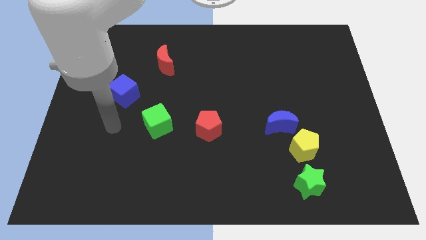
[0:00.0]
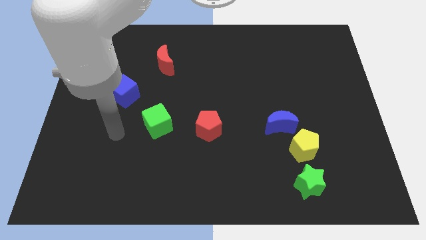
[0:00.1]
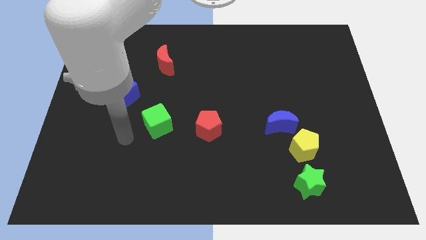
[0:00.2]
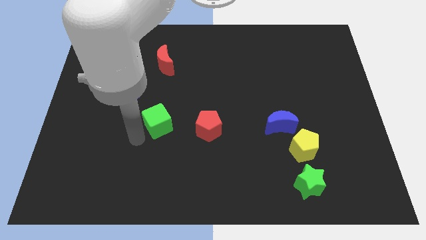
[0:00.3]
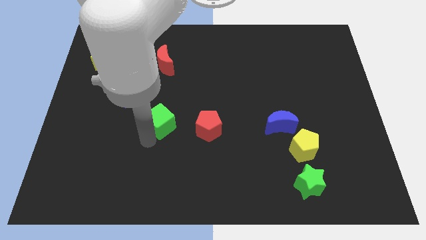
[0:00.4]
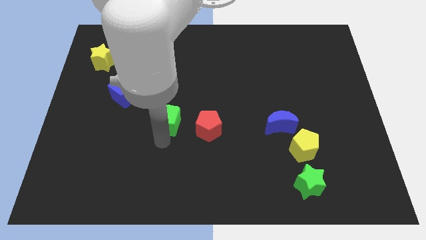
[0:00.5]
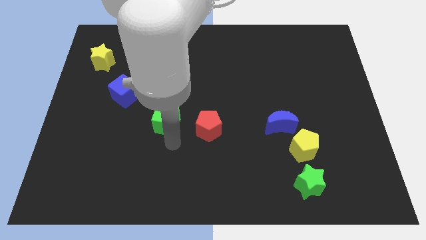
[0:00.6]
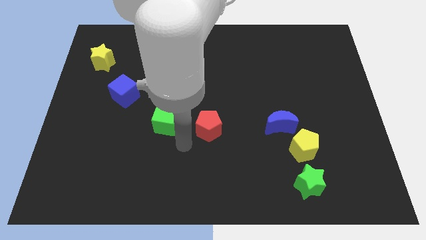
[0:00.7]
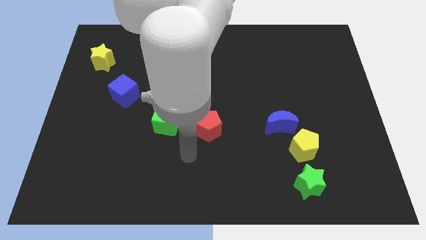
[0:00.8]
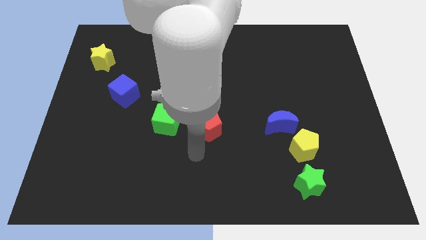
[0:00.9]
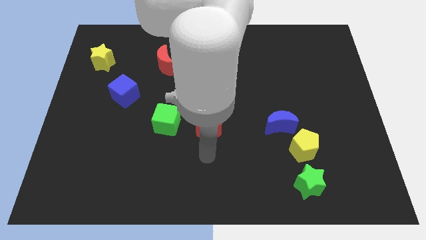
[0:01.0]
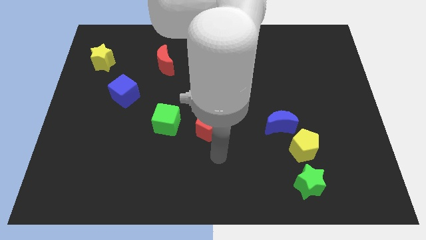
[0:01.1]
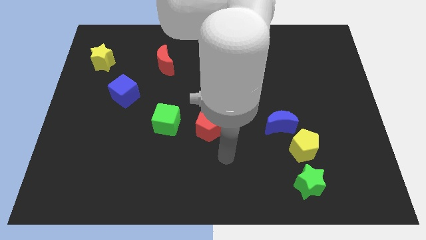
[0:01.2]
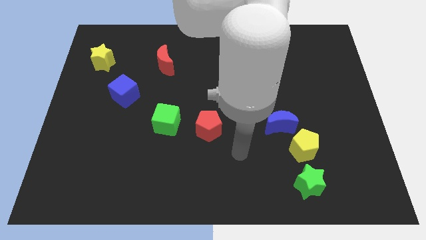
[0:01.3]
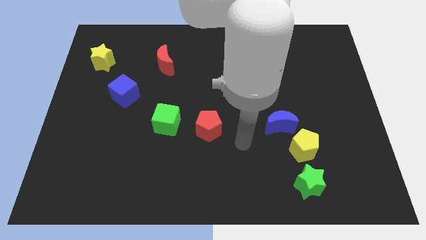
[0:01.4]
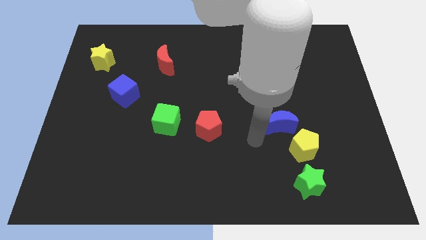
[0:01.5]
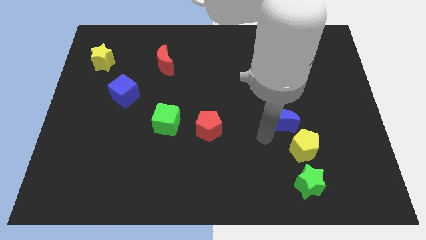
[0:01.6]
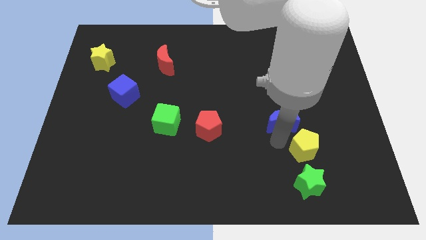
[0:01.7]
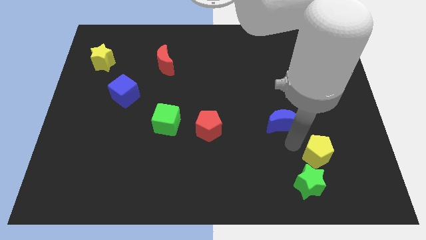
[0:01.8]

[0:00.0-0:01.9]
pull the blue moon apart from the yellow pentagon

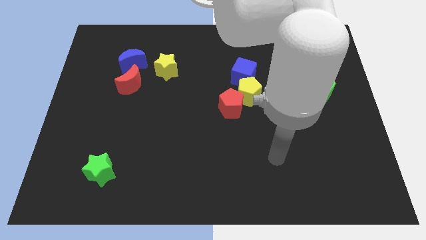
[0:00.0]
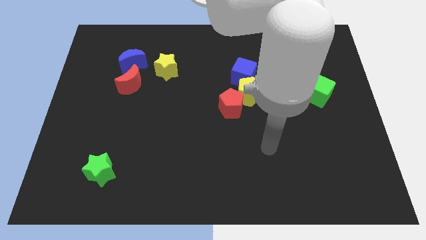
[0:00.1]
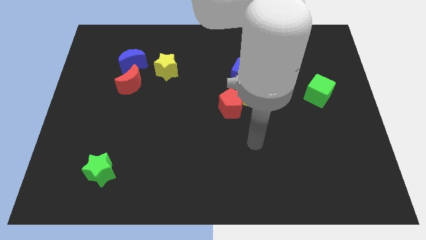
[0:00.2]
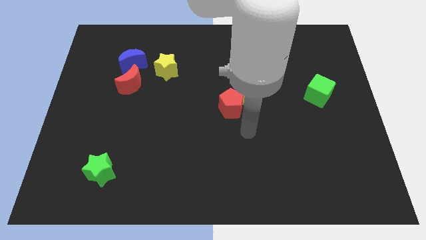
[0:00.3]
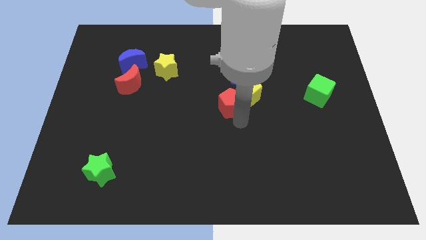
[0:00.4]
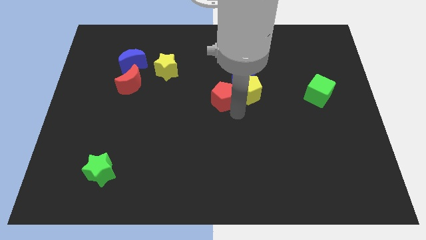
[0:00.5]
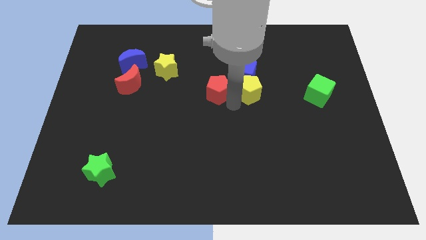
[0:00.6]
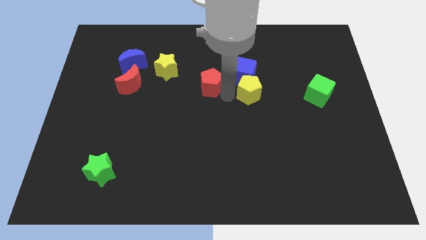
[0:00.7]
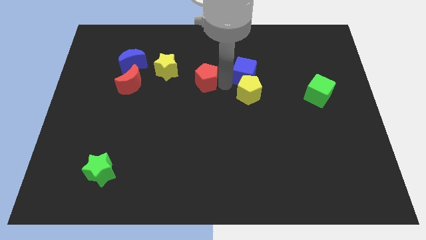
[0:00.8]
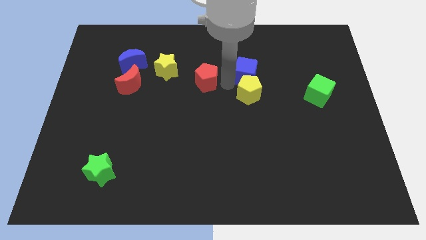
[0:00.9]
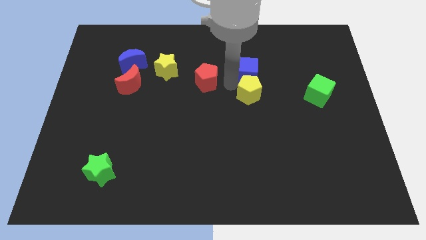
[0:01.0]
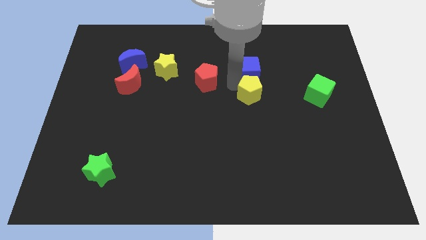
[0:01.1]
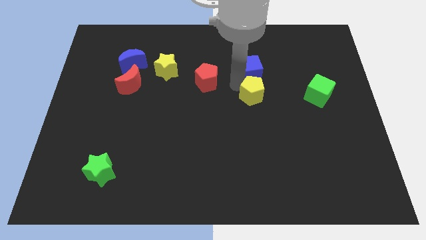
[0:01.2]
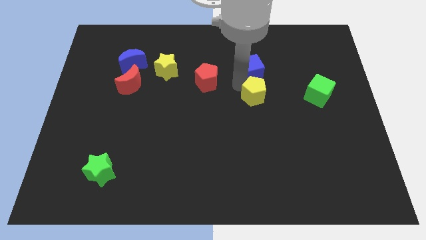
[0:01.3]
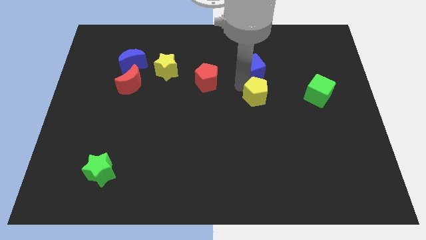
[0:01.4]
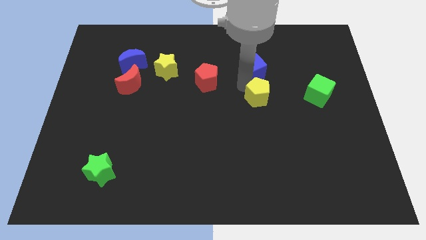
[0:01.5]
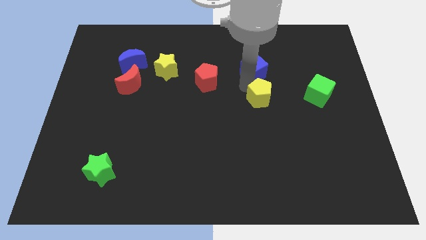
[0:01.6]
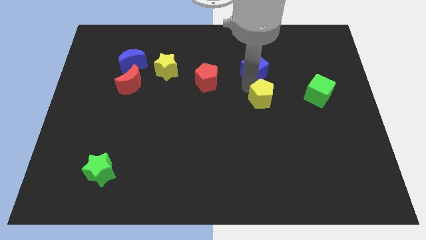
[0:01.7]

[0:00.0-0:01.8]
move the yellow pentagon away from the red pentagon and blue cube

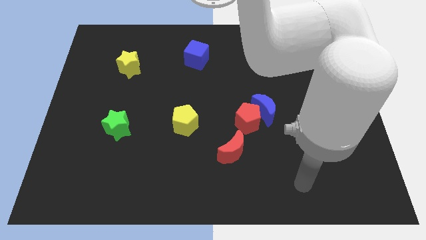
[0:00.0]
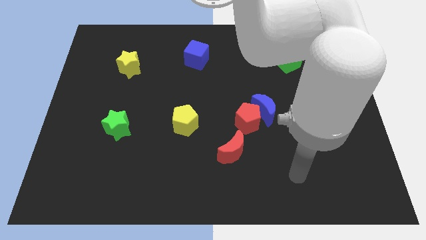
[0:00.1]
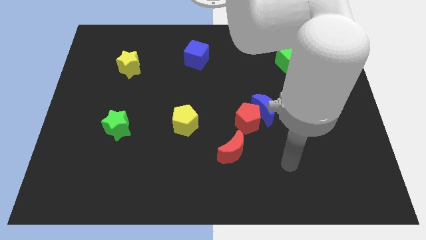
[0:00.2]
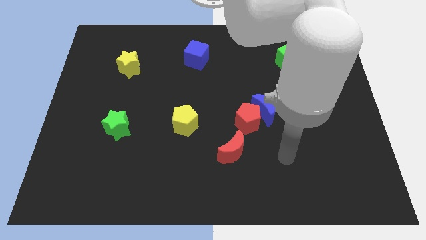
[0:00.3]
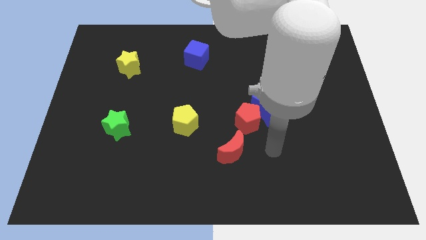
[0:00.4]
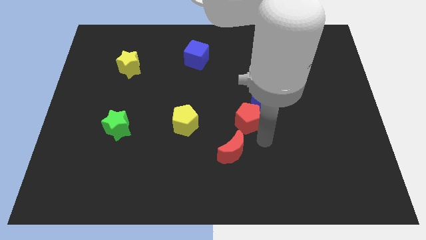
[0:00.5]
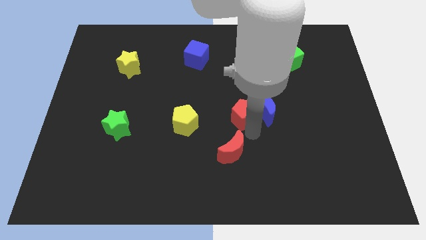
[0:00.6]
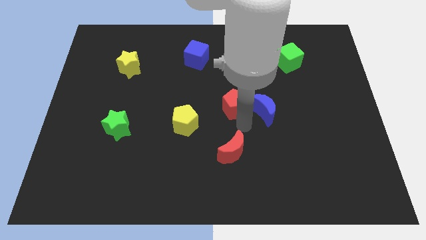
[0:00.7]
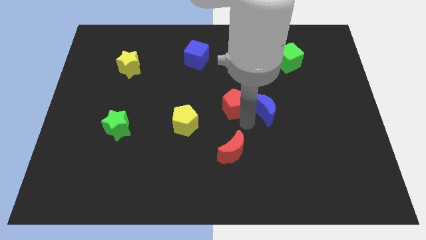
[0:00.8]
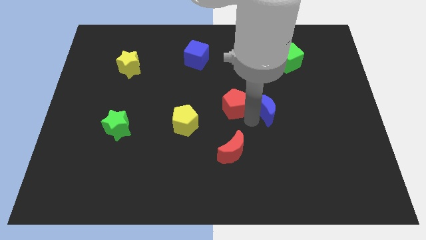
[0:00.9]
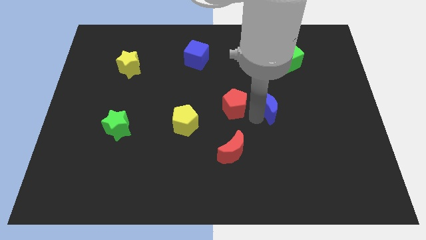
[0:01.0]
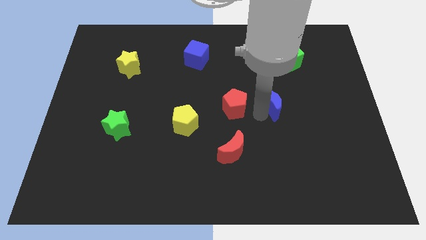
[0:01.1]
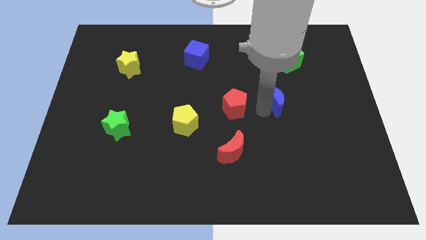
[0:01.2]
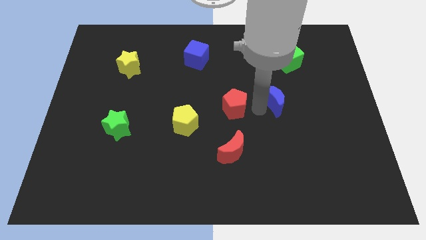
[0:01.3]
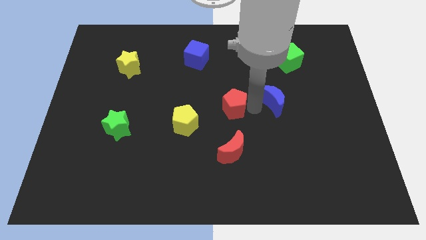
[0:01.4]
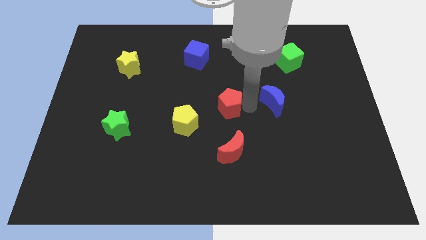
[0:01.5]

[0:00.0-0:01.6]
move the blue moon away from the red pentagon

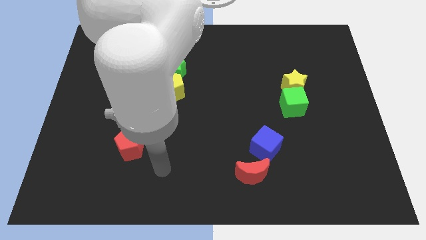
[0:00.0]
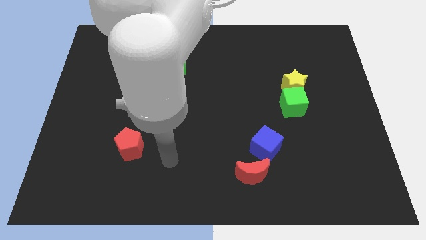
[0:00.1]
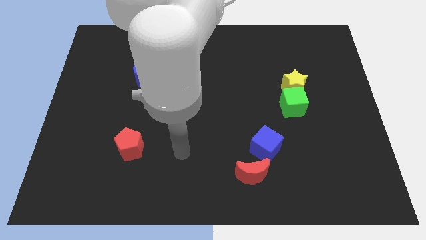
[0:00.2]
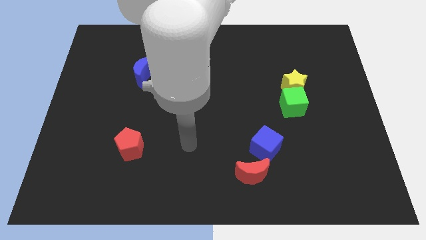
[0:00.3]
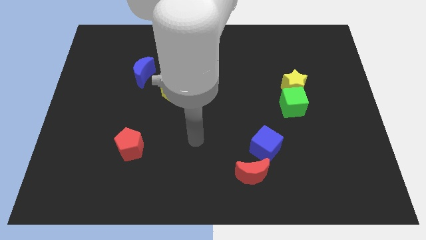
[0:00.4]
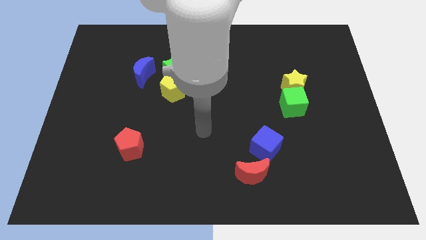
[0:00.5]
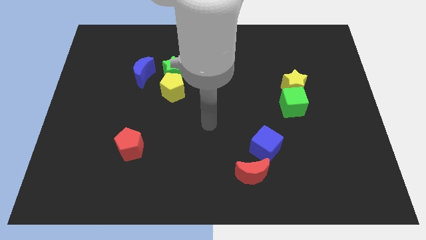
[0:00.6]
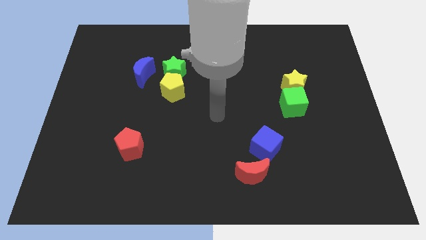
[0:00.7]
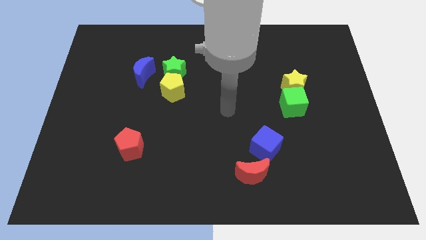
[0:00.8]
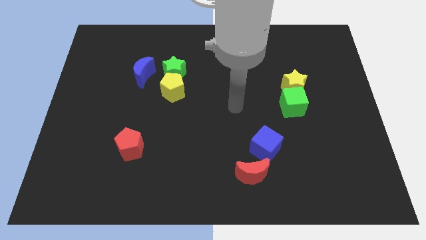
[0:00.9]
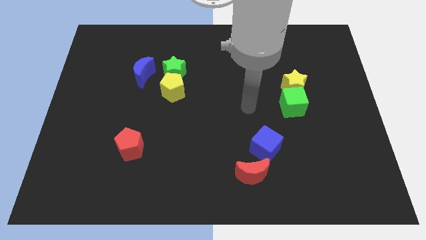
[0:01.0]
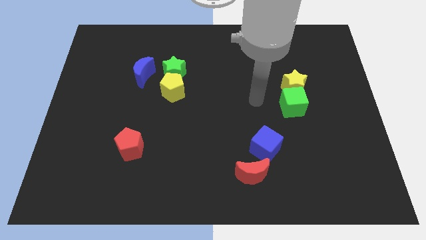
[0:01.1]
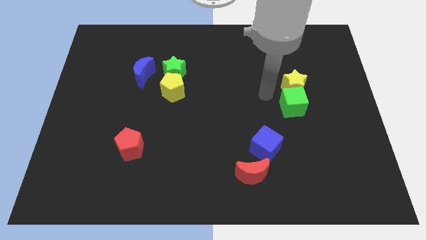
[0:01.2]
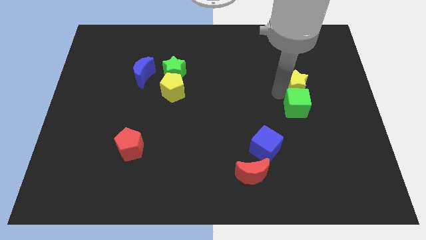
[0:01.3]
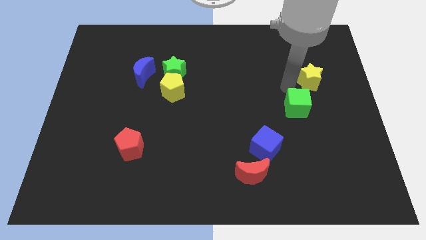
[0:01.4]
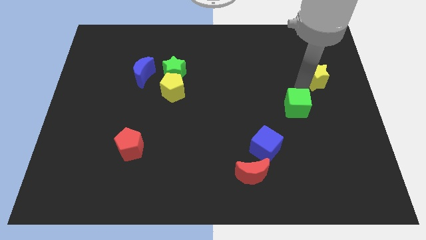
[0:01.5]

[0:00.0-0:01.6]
separate the green cube from the yellow star

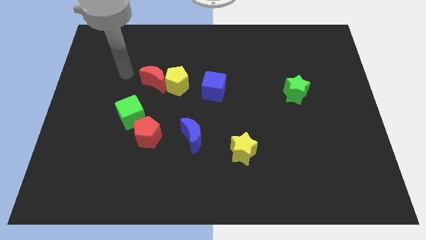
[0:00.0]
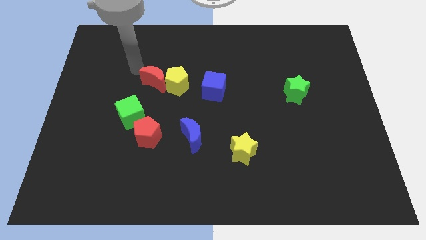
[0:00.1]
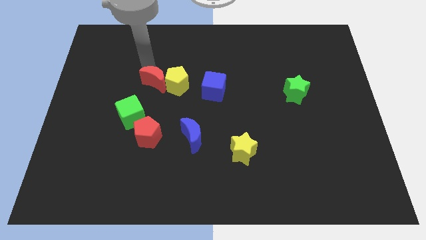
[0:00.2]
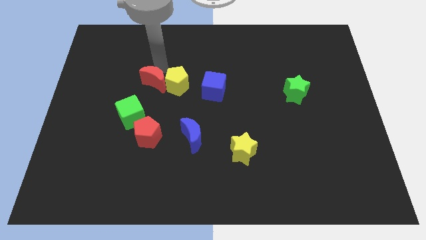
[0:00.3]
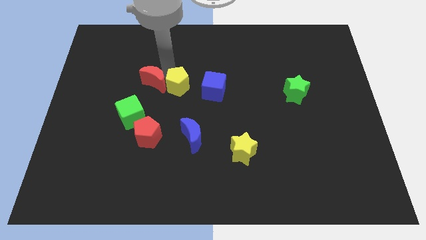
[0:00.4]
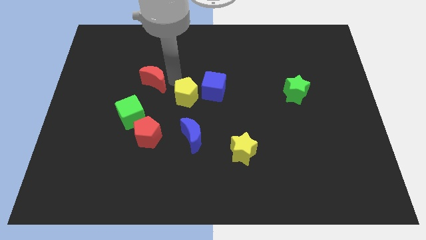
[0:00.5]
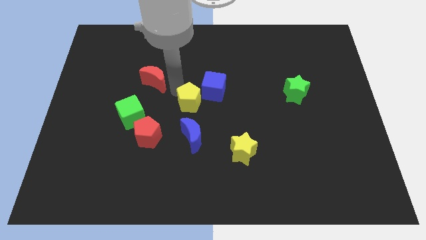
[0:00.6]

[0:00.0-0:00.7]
move the red moon away from the yellow pentagon

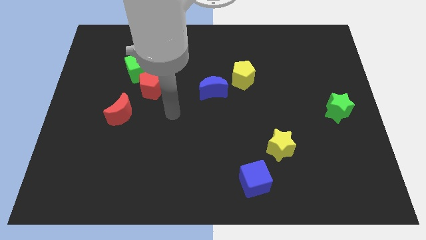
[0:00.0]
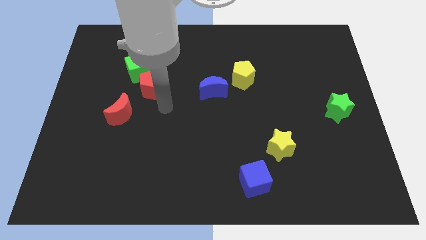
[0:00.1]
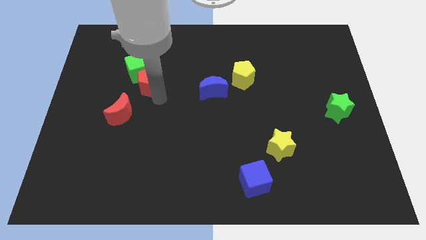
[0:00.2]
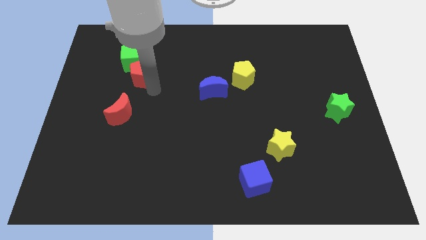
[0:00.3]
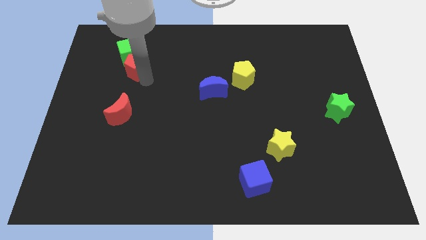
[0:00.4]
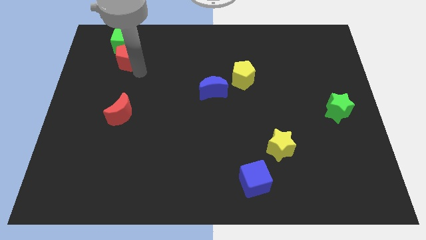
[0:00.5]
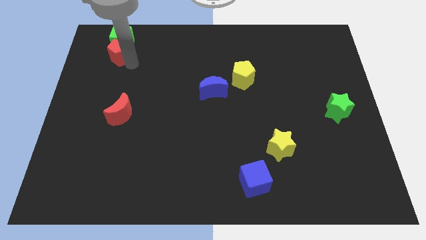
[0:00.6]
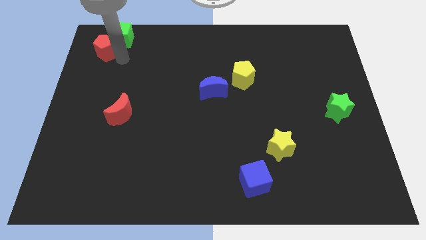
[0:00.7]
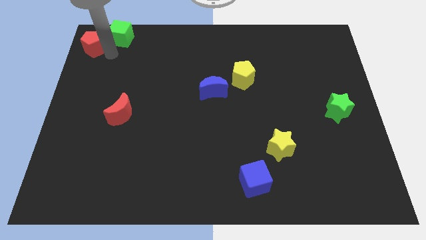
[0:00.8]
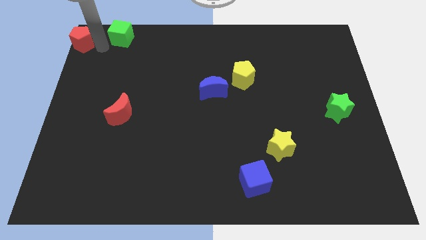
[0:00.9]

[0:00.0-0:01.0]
move the green cube away from the red pentagon

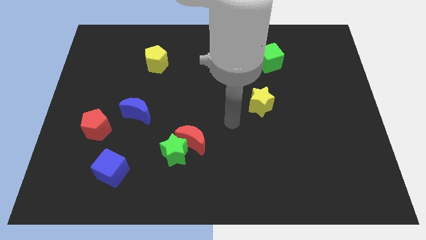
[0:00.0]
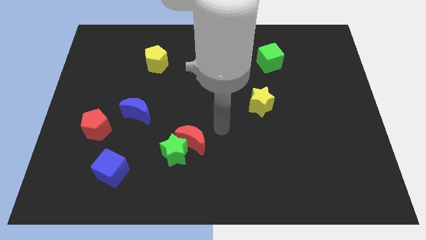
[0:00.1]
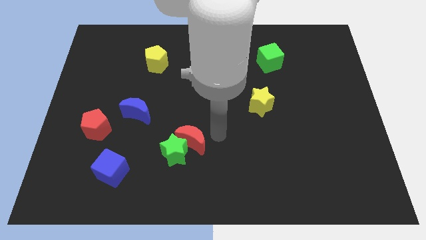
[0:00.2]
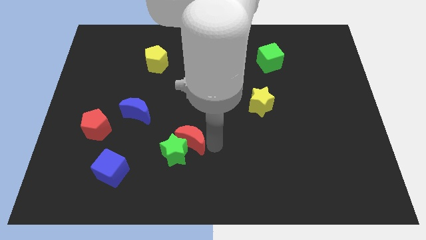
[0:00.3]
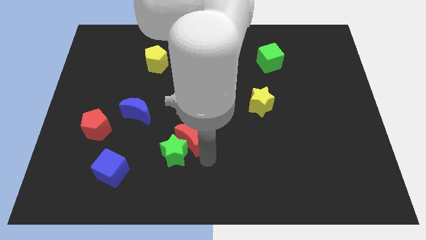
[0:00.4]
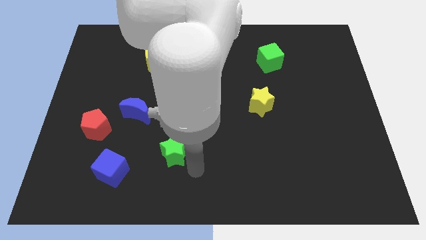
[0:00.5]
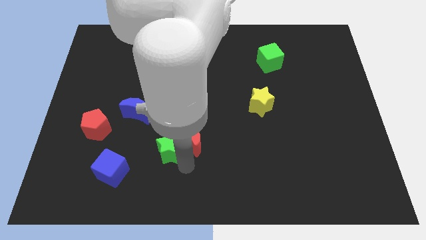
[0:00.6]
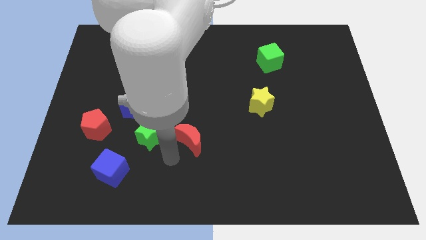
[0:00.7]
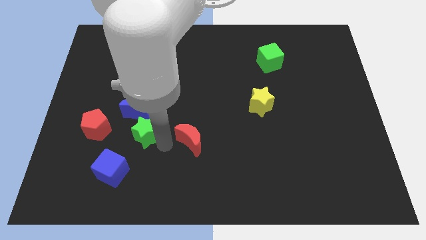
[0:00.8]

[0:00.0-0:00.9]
move the red moon away from the green star
